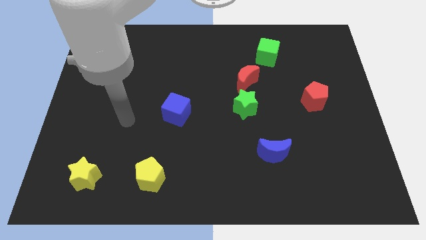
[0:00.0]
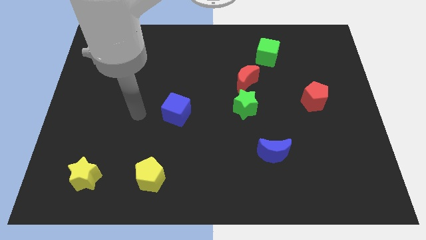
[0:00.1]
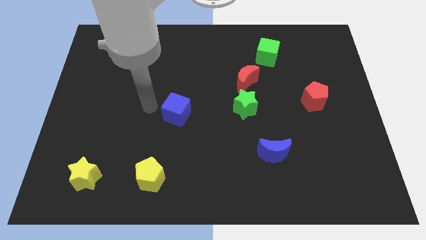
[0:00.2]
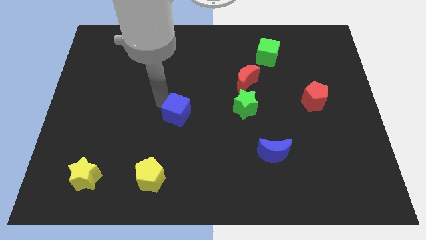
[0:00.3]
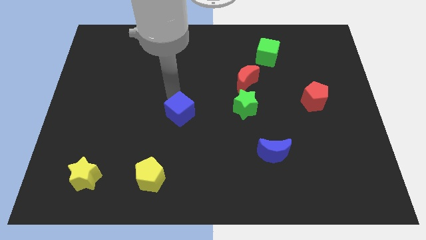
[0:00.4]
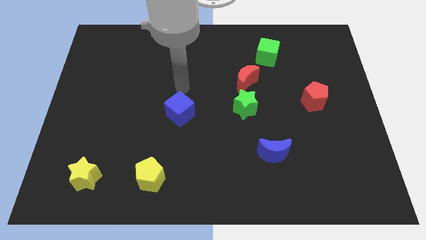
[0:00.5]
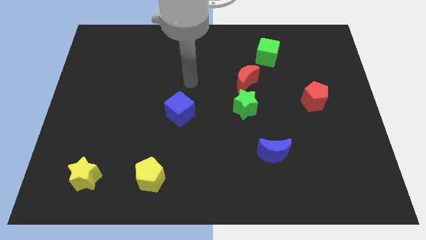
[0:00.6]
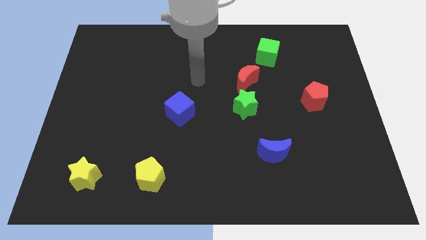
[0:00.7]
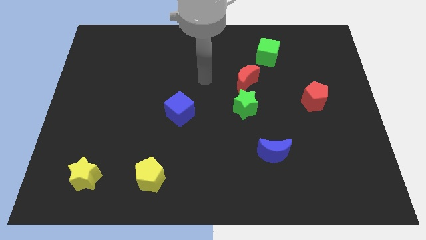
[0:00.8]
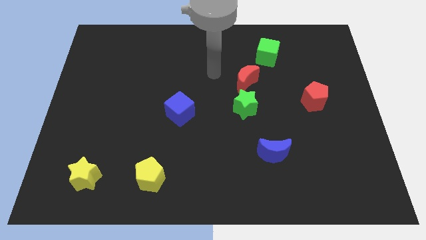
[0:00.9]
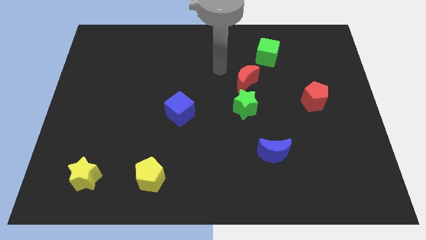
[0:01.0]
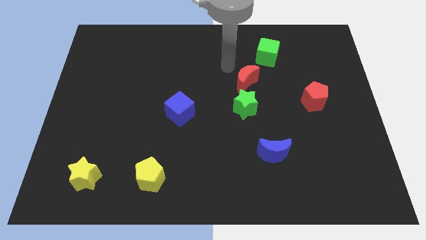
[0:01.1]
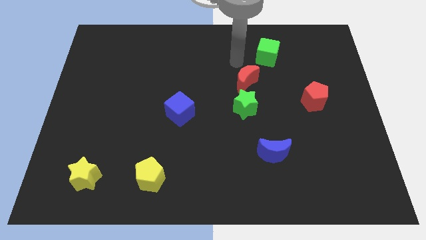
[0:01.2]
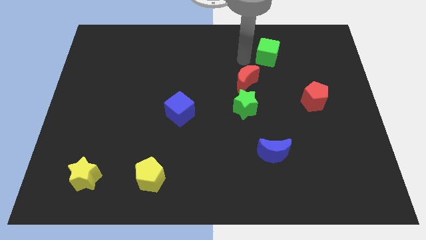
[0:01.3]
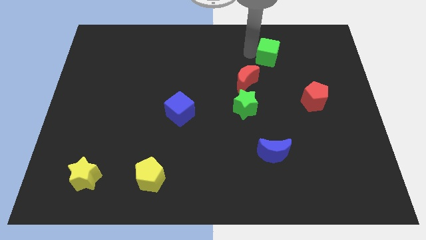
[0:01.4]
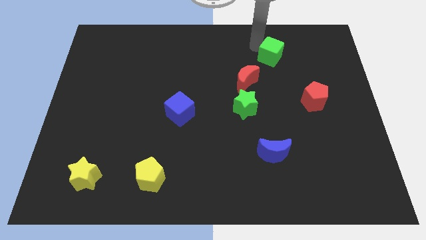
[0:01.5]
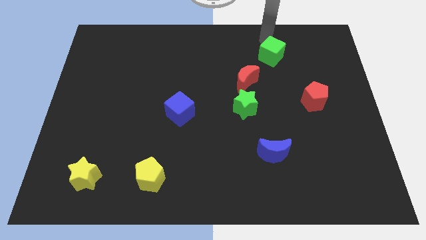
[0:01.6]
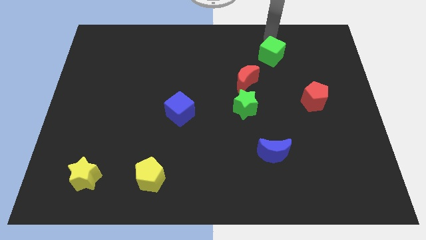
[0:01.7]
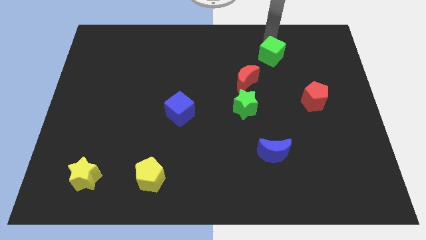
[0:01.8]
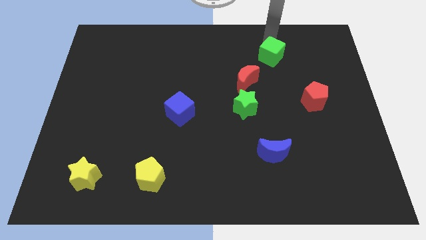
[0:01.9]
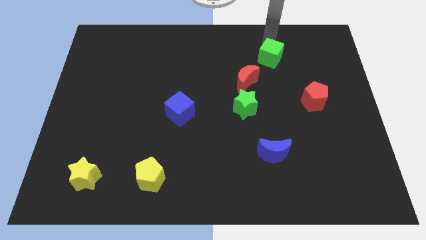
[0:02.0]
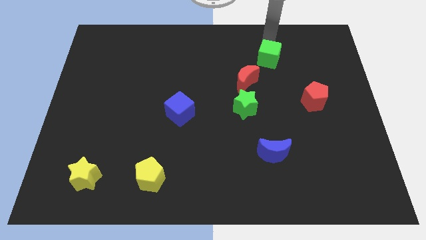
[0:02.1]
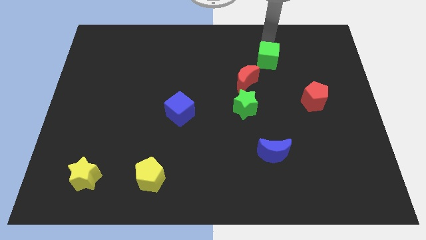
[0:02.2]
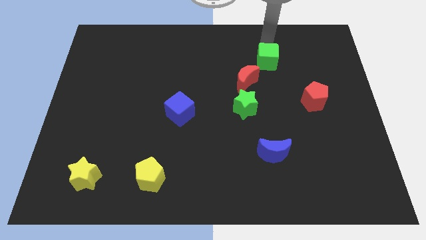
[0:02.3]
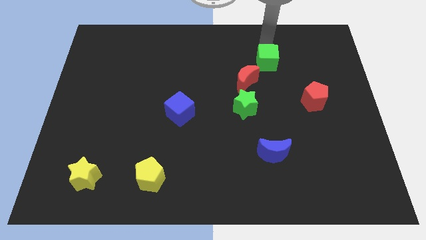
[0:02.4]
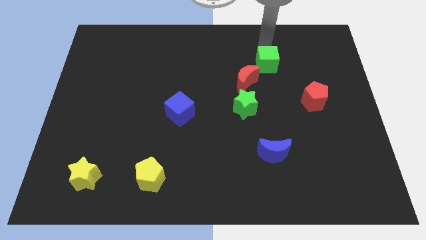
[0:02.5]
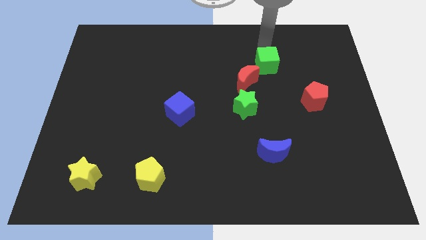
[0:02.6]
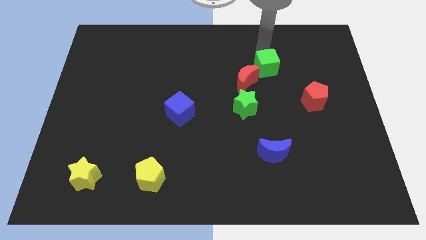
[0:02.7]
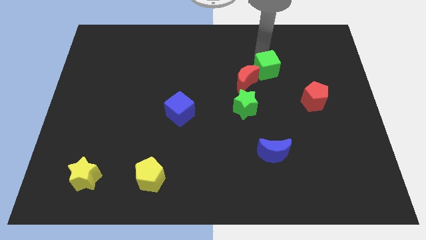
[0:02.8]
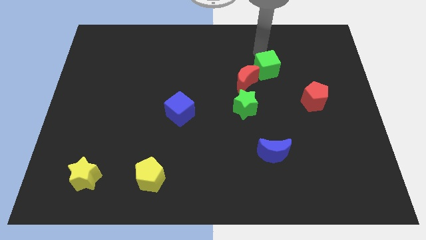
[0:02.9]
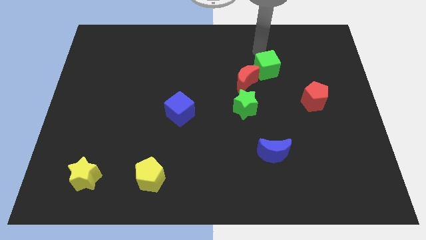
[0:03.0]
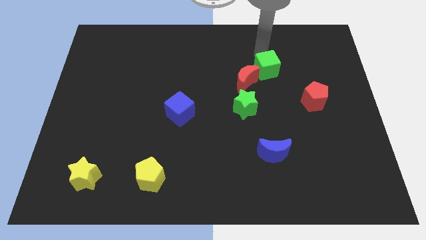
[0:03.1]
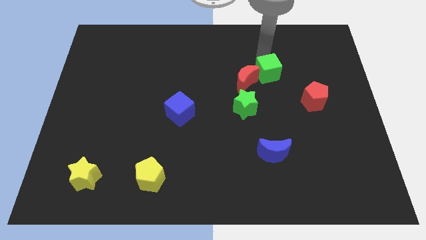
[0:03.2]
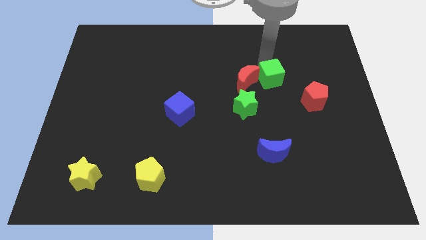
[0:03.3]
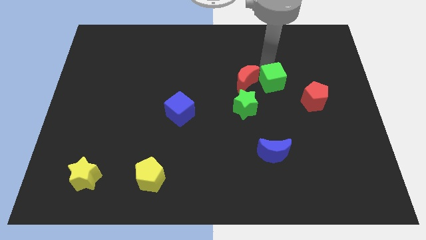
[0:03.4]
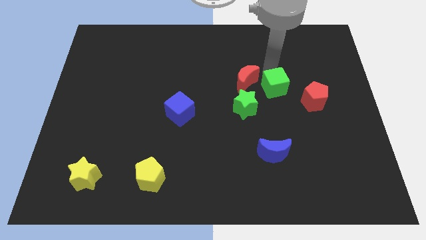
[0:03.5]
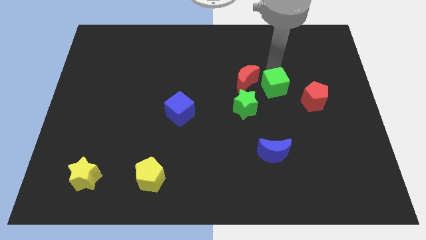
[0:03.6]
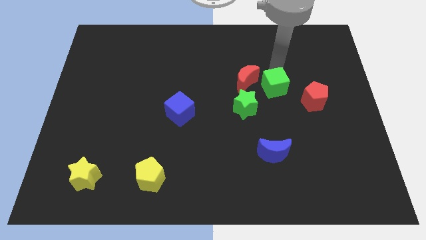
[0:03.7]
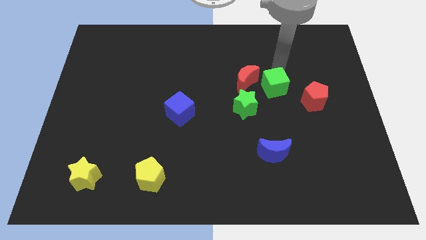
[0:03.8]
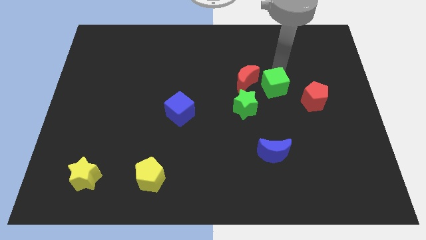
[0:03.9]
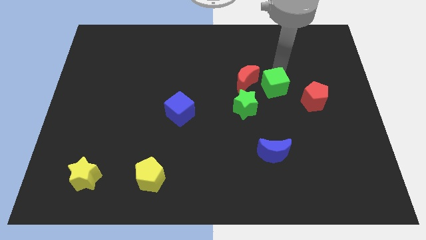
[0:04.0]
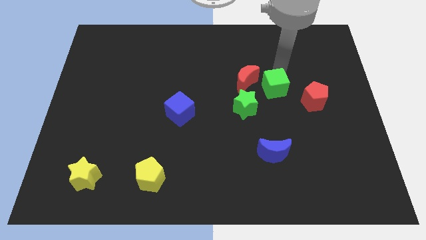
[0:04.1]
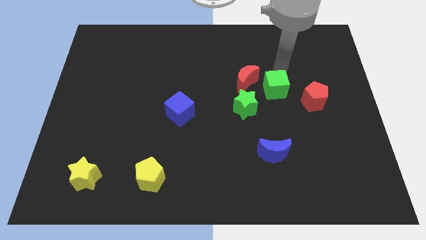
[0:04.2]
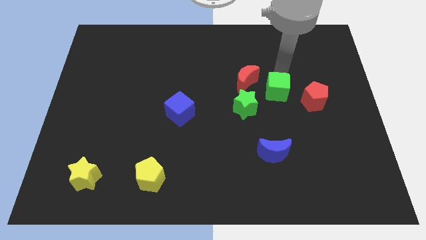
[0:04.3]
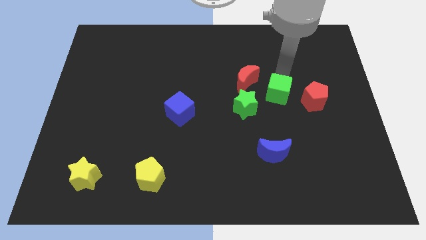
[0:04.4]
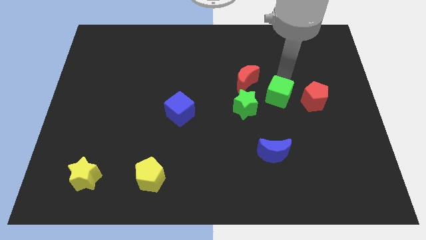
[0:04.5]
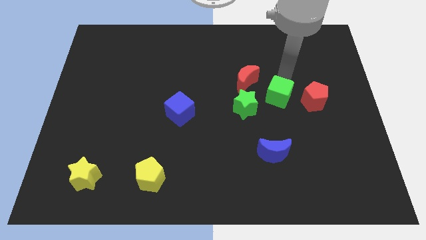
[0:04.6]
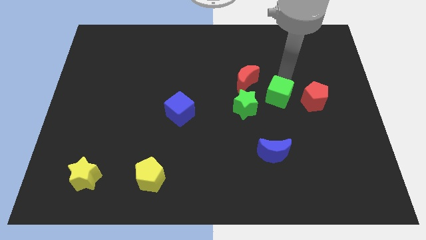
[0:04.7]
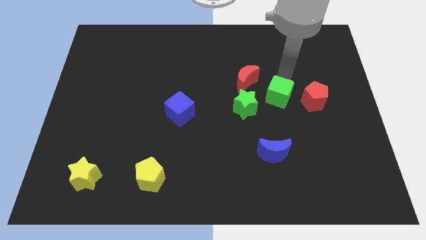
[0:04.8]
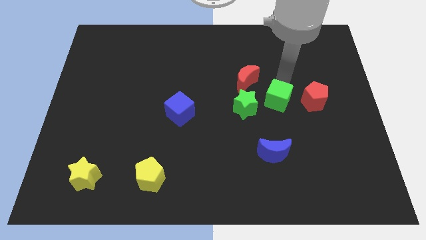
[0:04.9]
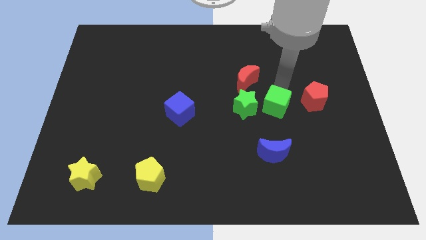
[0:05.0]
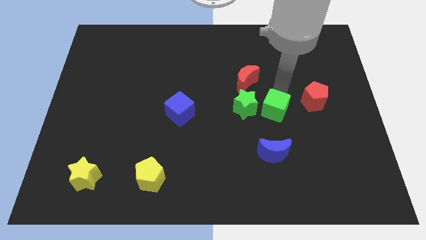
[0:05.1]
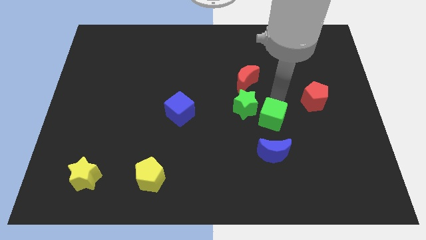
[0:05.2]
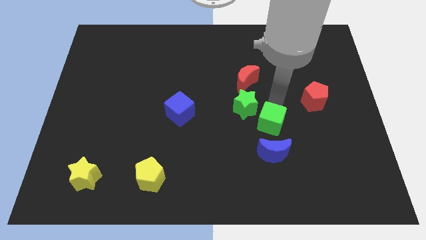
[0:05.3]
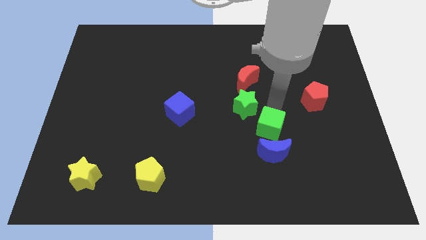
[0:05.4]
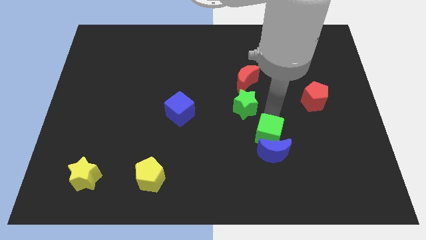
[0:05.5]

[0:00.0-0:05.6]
move the green cube close to the blue moon

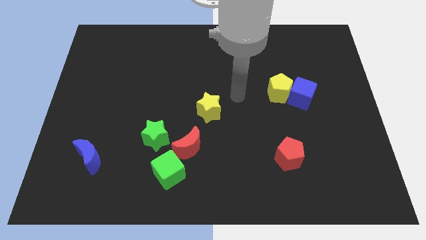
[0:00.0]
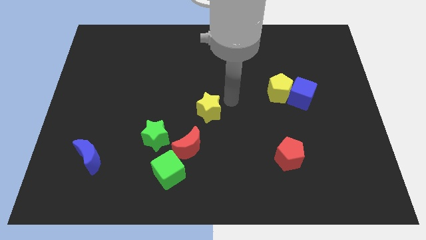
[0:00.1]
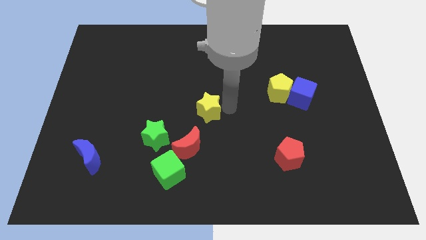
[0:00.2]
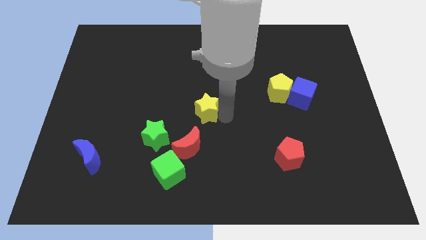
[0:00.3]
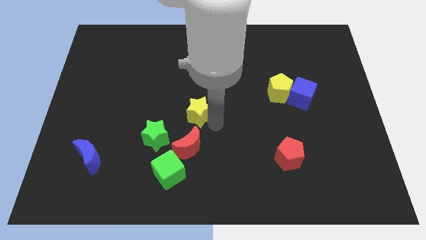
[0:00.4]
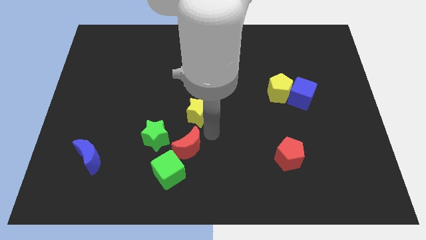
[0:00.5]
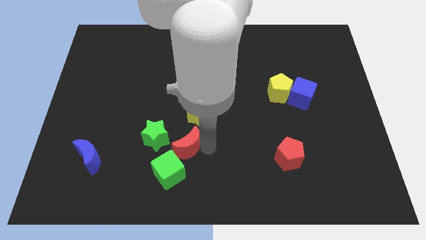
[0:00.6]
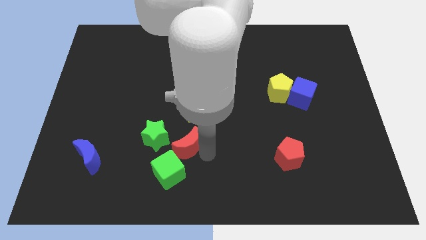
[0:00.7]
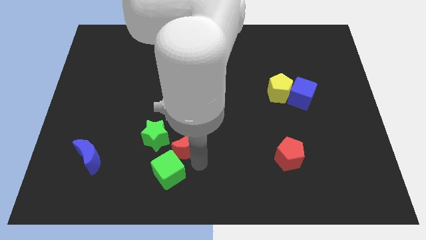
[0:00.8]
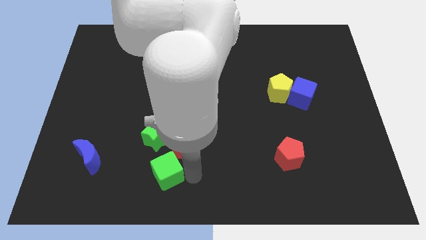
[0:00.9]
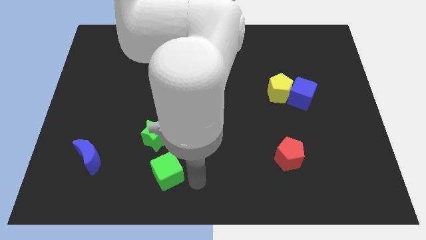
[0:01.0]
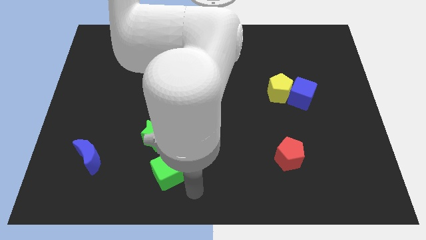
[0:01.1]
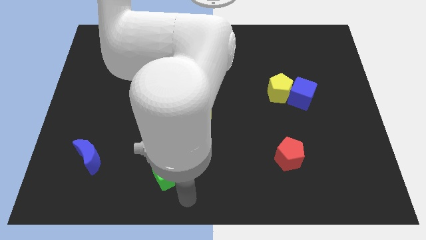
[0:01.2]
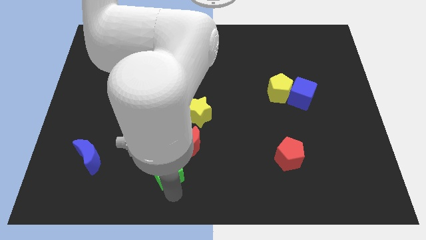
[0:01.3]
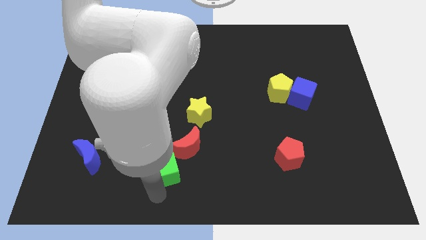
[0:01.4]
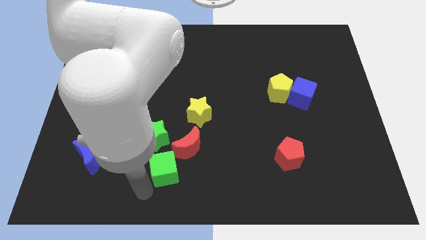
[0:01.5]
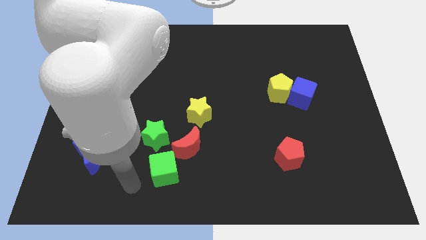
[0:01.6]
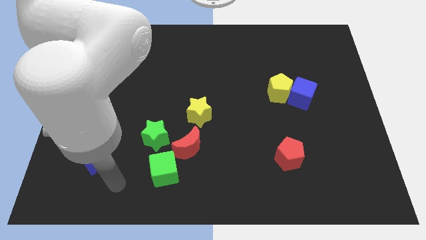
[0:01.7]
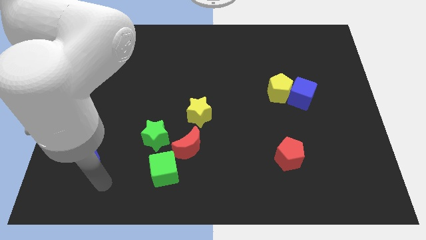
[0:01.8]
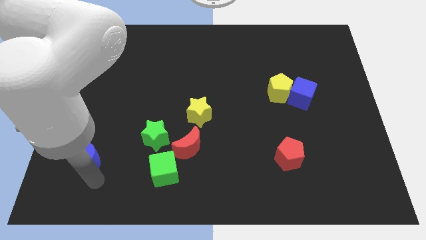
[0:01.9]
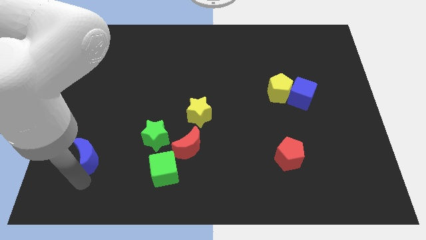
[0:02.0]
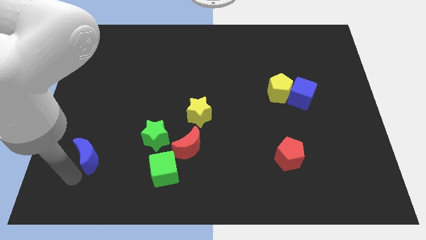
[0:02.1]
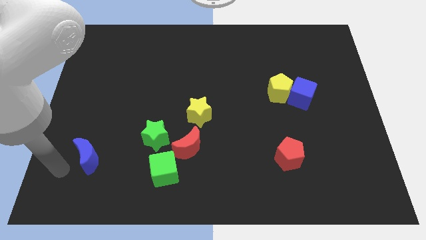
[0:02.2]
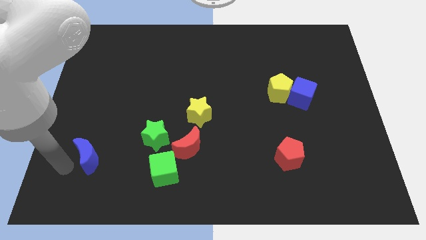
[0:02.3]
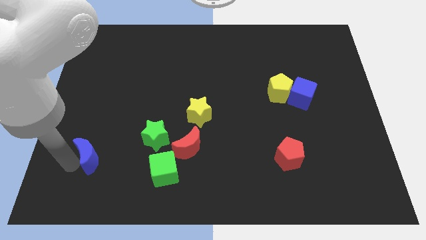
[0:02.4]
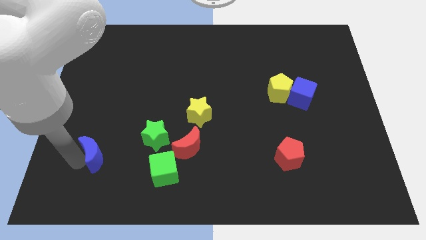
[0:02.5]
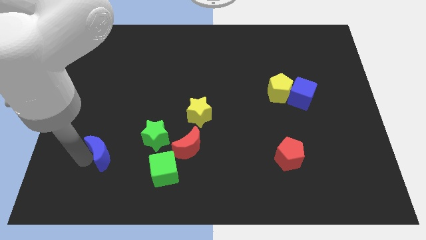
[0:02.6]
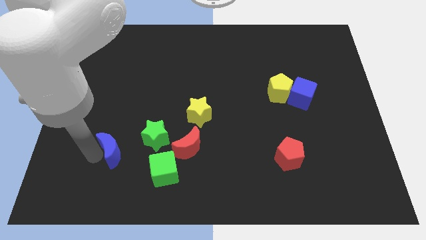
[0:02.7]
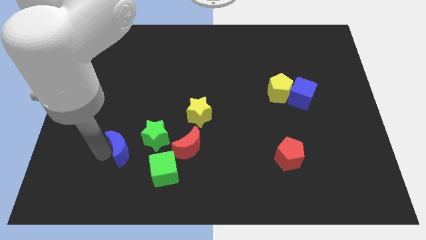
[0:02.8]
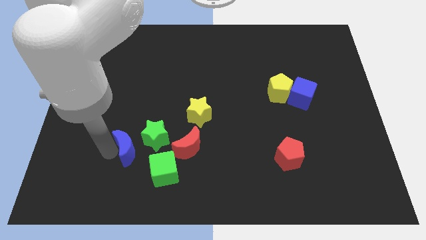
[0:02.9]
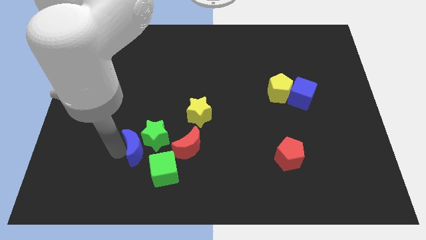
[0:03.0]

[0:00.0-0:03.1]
put the blue moon to the green star
